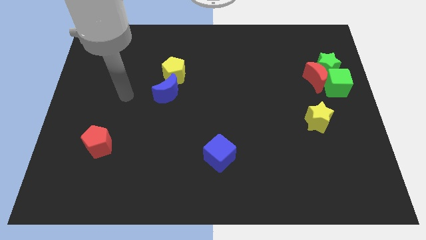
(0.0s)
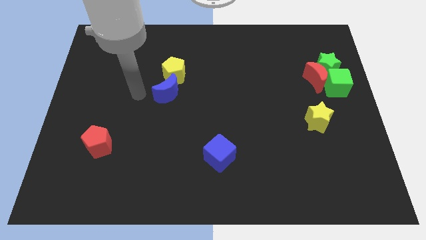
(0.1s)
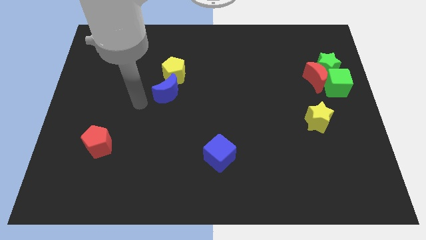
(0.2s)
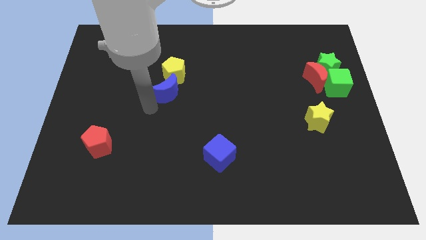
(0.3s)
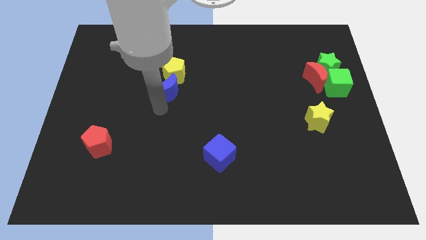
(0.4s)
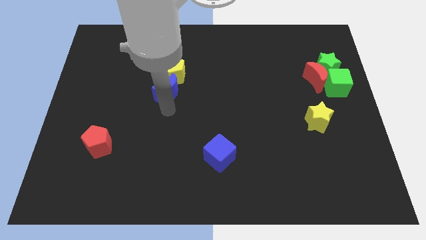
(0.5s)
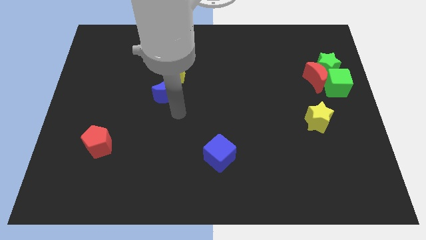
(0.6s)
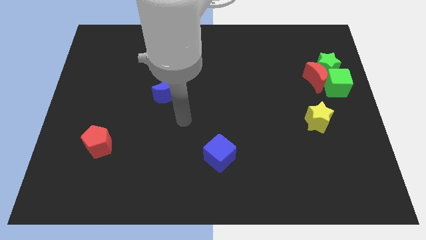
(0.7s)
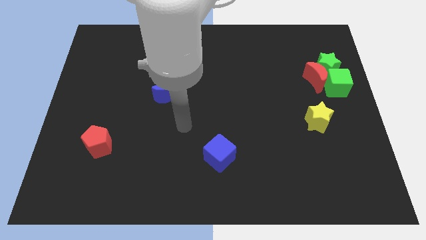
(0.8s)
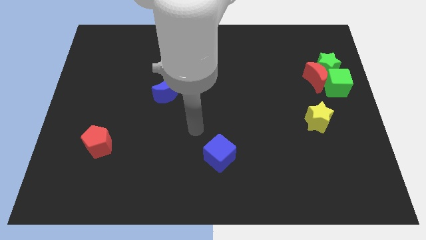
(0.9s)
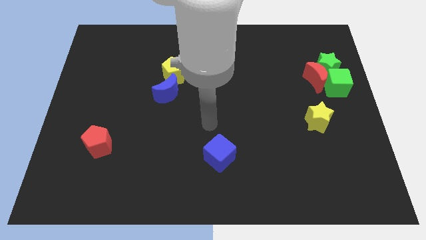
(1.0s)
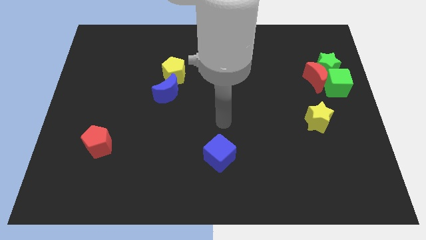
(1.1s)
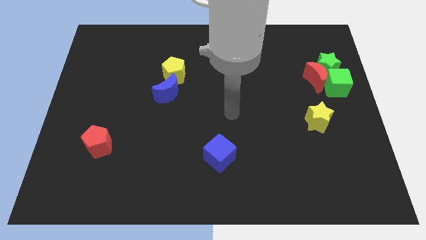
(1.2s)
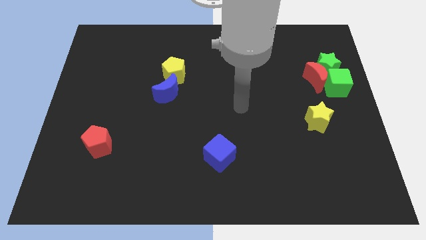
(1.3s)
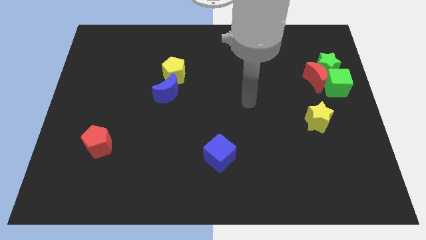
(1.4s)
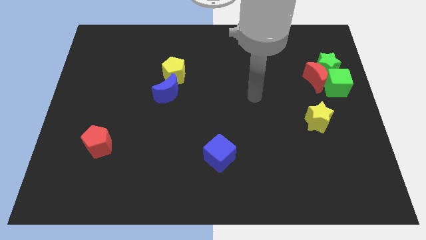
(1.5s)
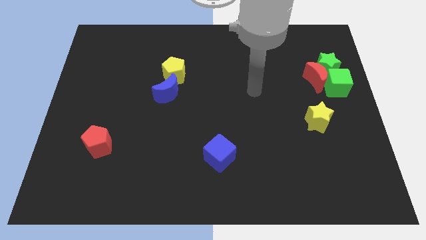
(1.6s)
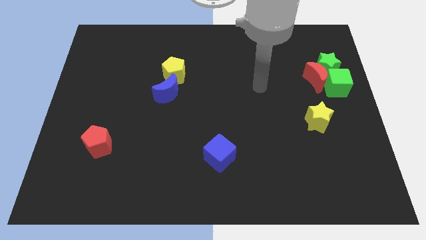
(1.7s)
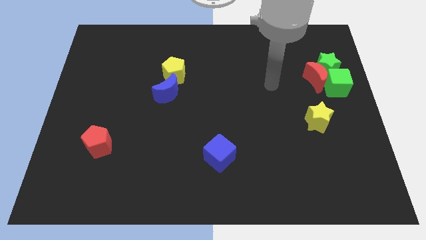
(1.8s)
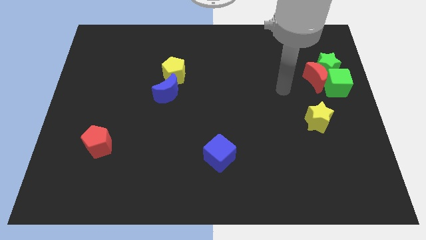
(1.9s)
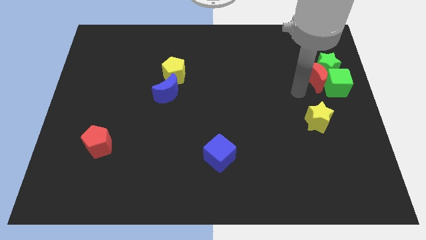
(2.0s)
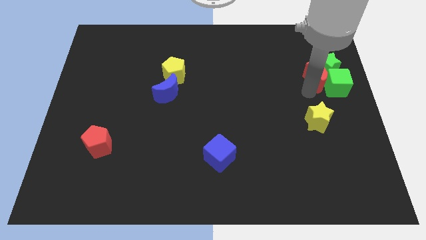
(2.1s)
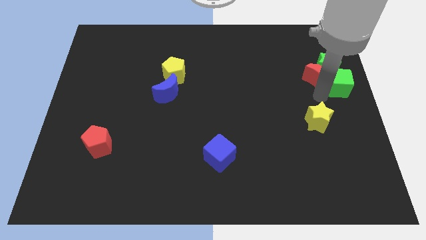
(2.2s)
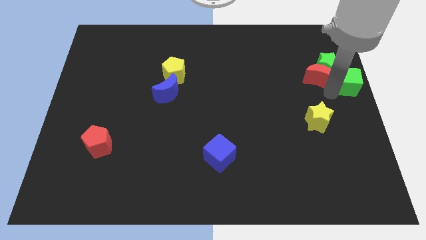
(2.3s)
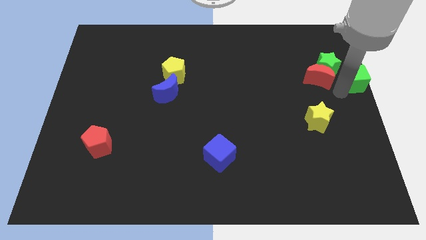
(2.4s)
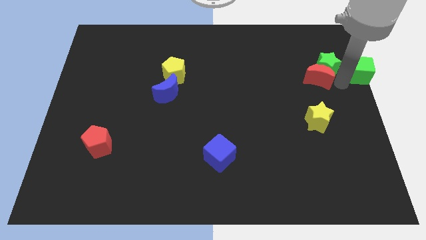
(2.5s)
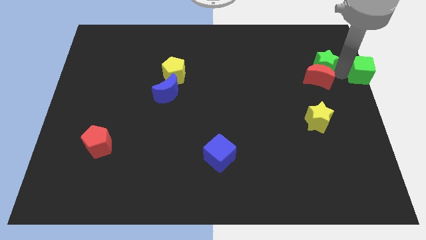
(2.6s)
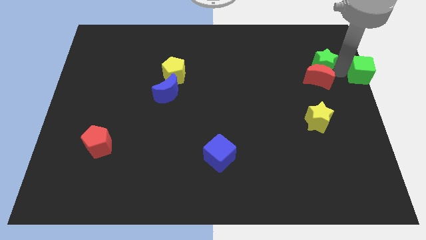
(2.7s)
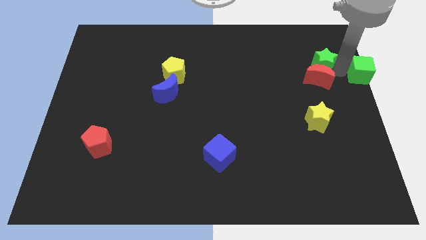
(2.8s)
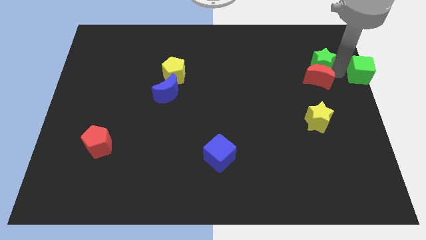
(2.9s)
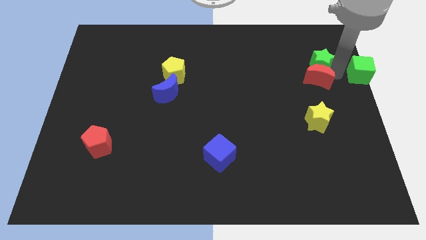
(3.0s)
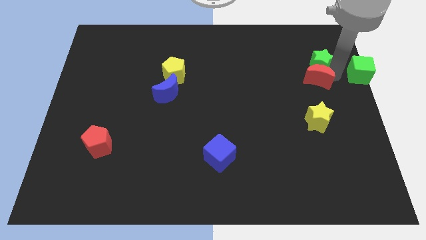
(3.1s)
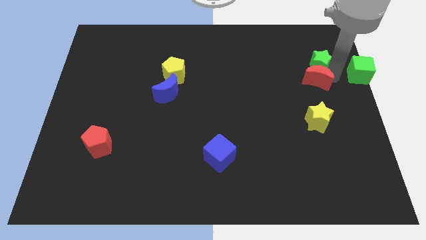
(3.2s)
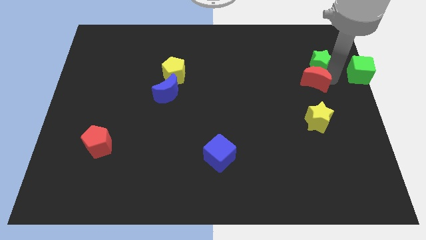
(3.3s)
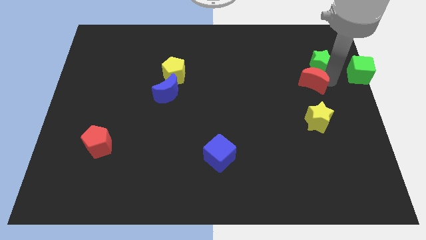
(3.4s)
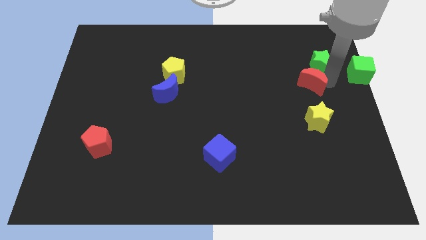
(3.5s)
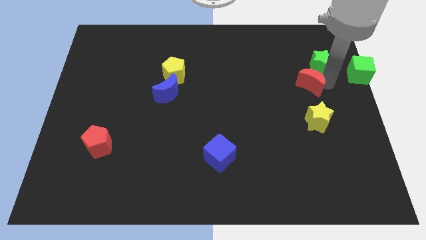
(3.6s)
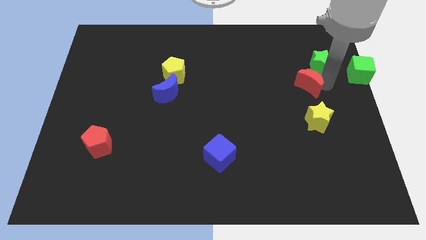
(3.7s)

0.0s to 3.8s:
move the red moon away from the green star and green cube

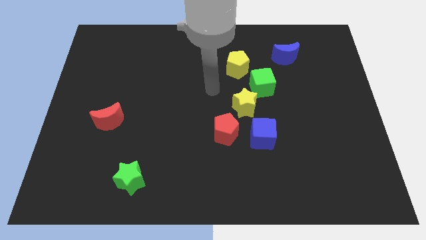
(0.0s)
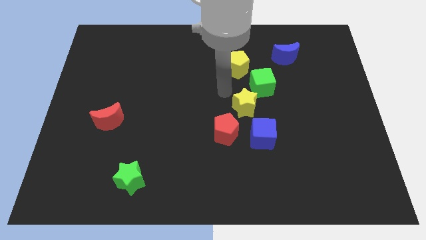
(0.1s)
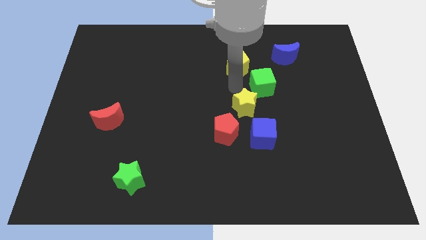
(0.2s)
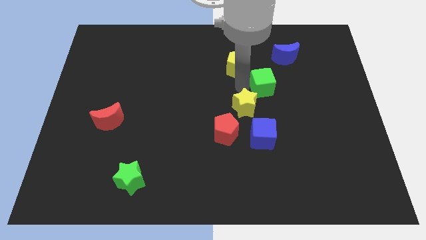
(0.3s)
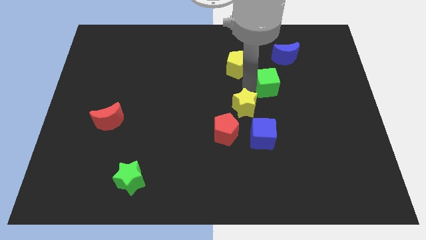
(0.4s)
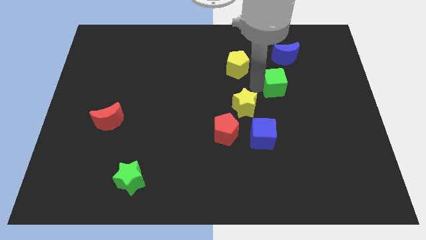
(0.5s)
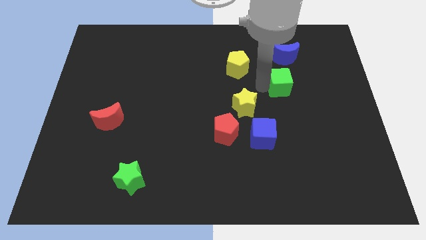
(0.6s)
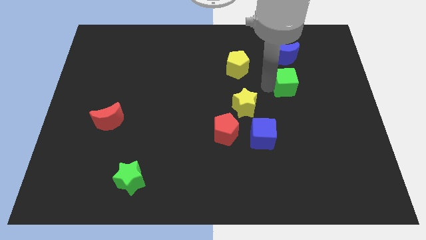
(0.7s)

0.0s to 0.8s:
separate the green cube from the yellow star and yellow pentagon

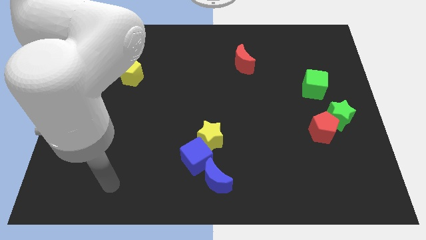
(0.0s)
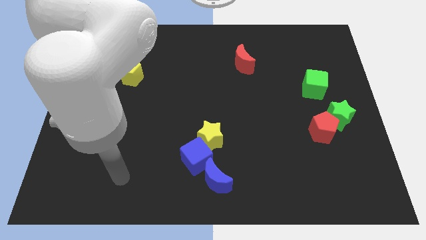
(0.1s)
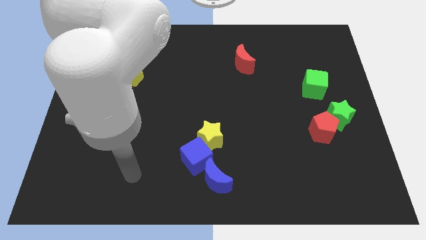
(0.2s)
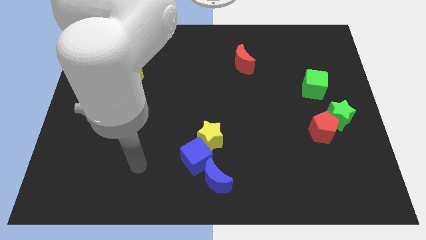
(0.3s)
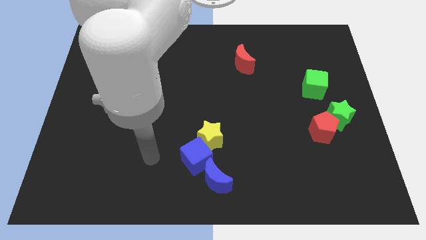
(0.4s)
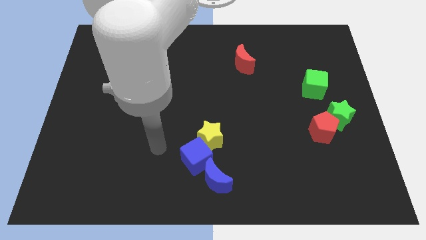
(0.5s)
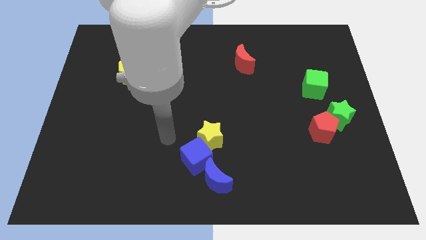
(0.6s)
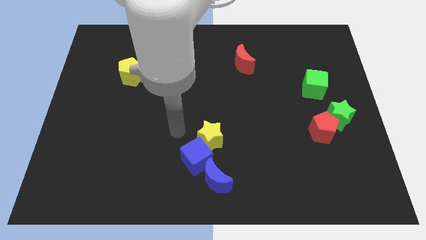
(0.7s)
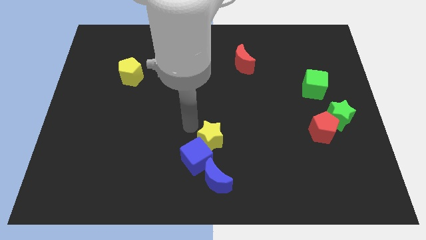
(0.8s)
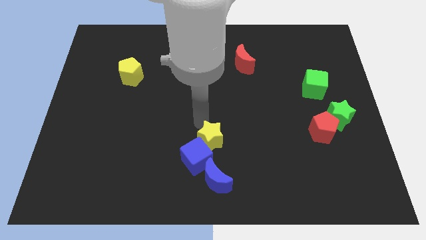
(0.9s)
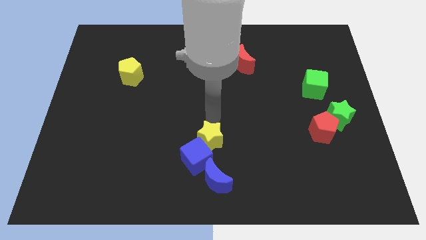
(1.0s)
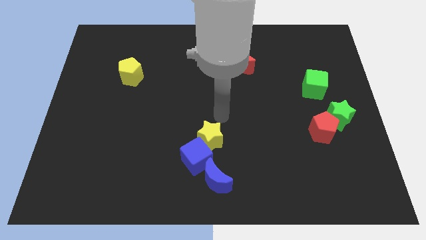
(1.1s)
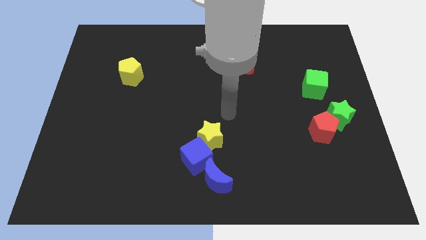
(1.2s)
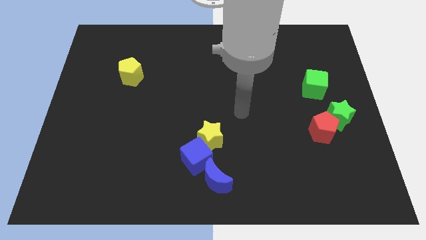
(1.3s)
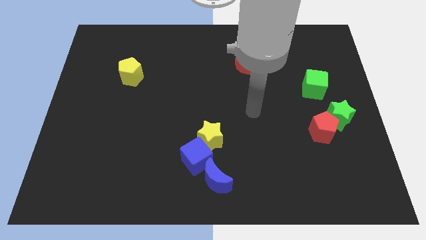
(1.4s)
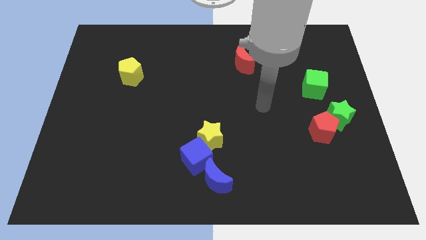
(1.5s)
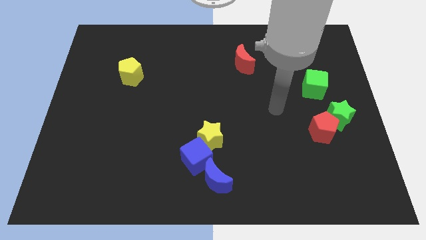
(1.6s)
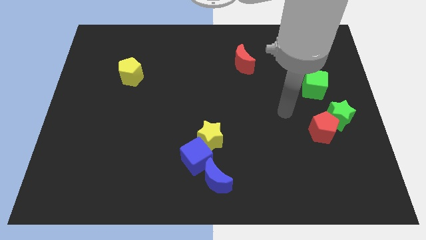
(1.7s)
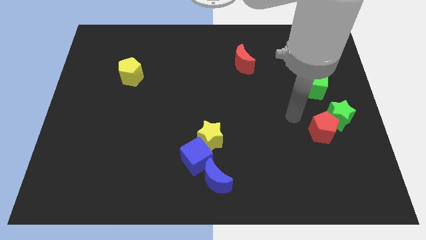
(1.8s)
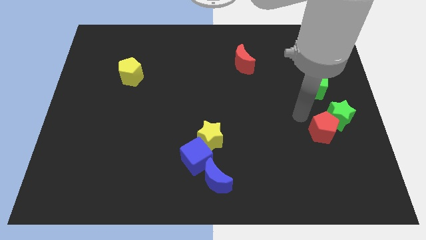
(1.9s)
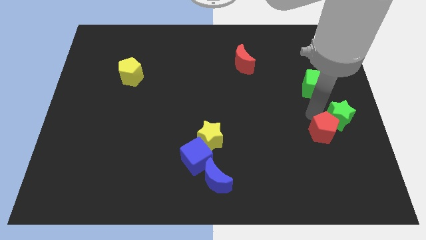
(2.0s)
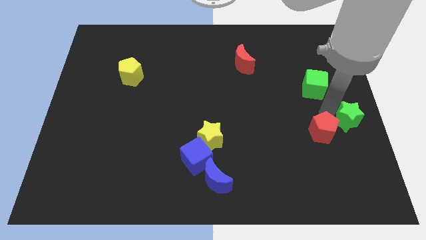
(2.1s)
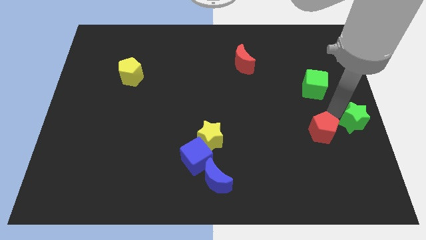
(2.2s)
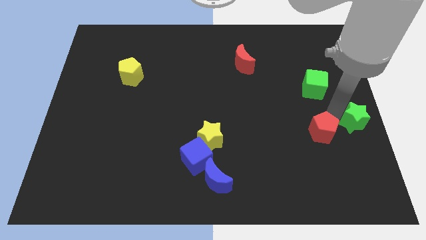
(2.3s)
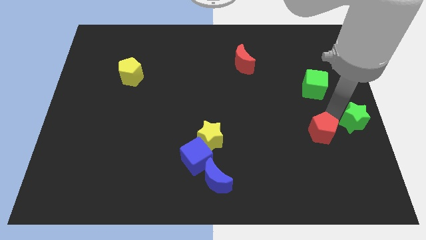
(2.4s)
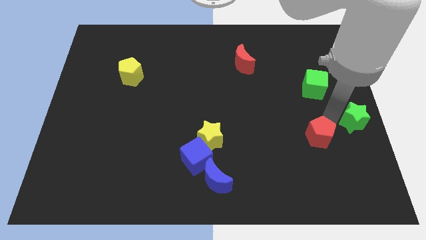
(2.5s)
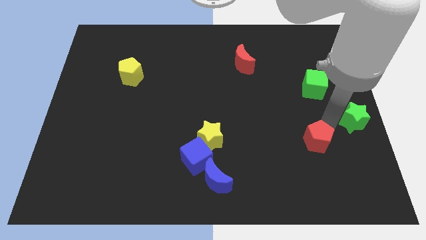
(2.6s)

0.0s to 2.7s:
pull the red pentagon apart from the green star

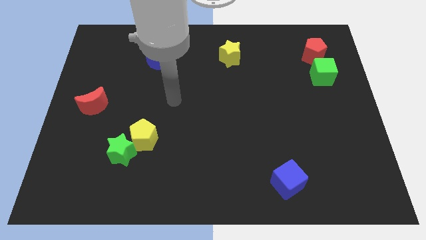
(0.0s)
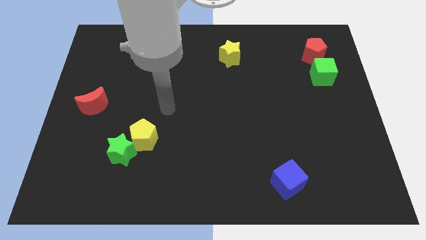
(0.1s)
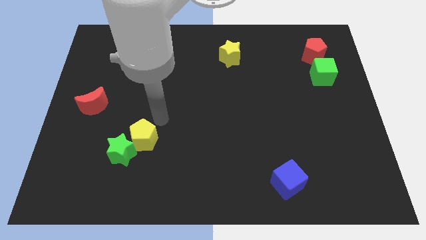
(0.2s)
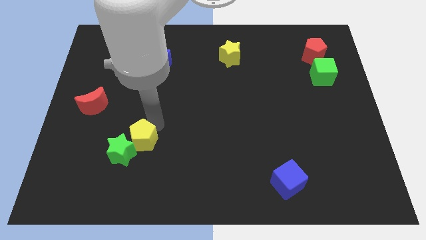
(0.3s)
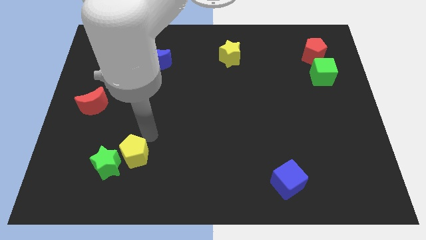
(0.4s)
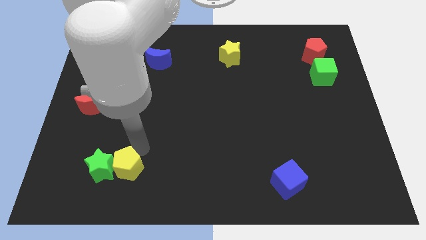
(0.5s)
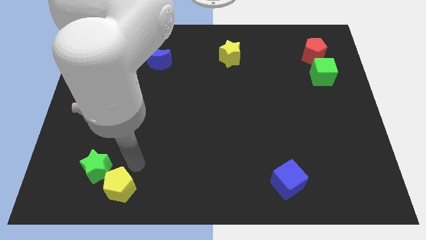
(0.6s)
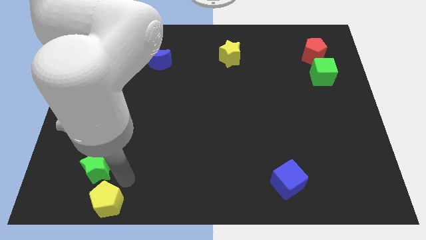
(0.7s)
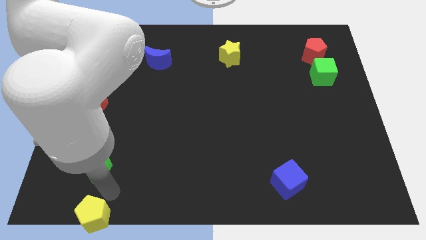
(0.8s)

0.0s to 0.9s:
move the green star away from the yellow pentagon

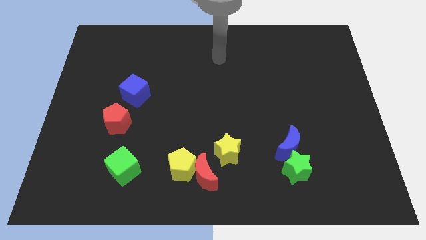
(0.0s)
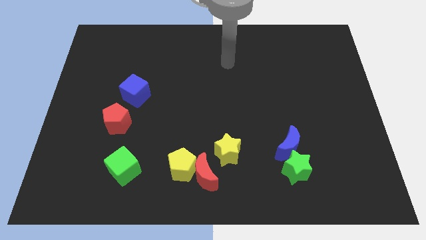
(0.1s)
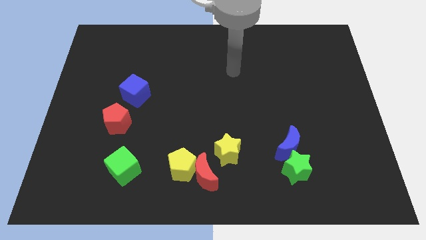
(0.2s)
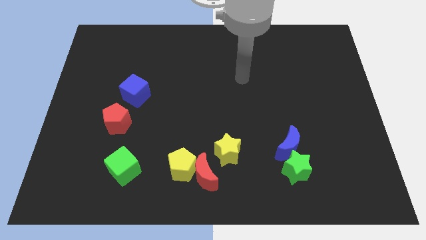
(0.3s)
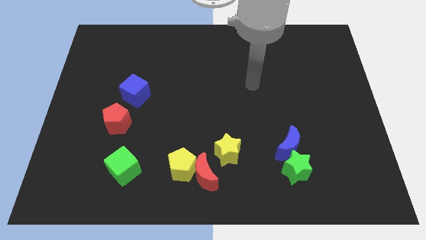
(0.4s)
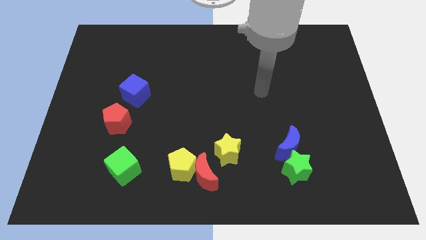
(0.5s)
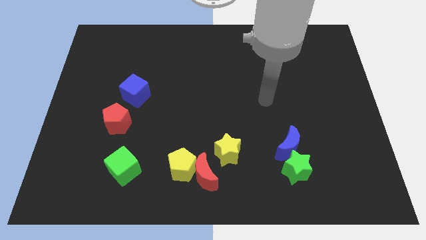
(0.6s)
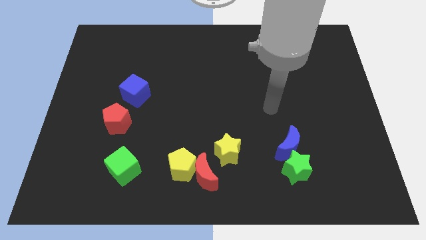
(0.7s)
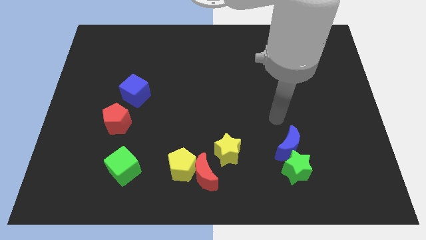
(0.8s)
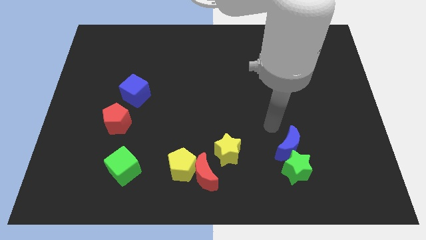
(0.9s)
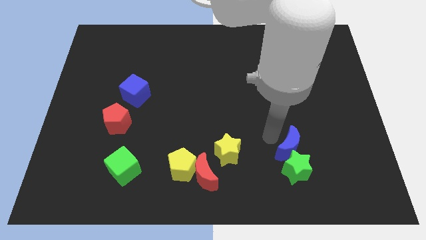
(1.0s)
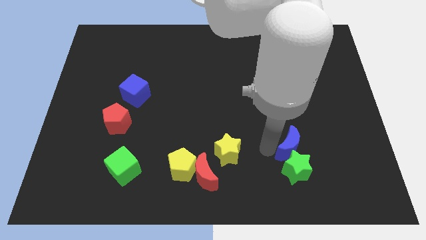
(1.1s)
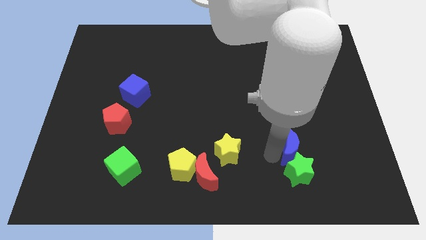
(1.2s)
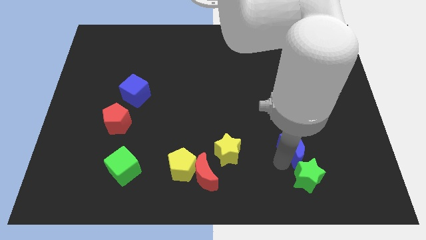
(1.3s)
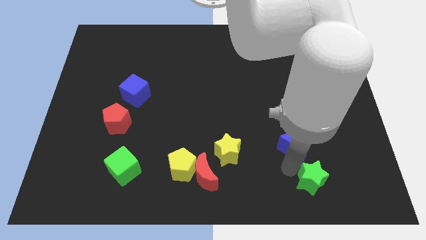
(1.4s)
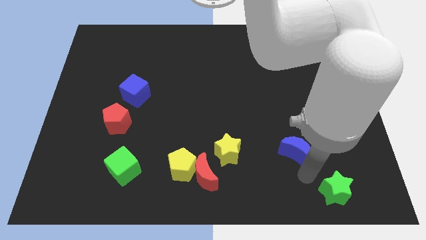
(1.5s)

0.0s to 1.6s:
pull the blue moon apart from the green star
